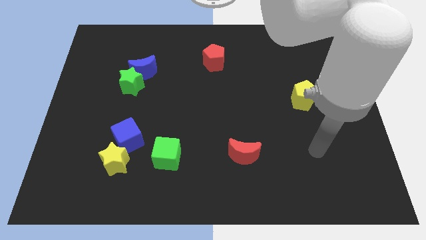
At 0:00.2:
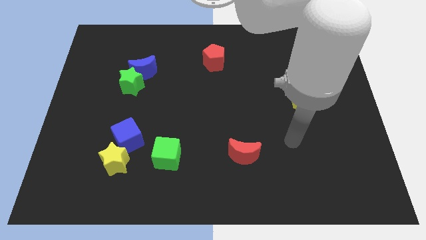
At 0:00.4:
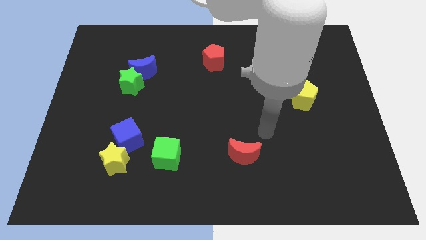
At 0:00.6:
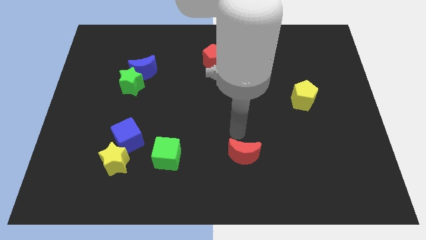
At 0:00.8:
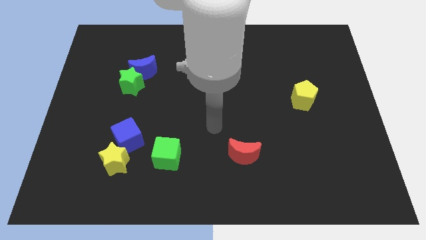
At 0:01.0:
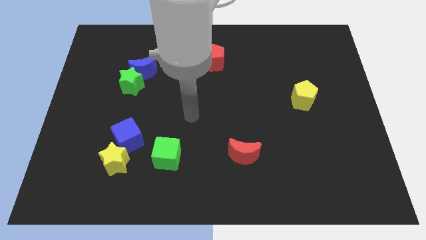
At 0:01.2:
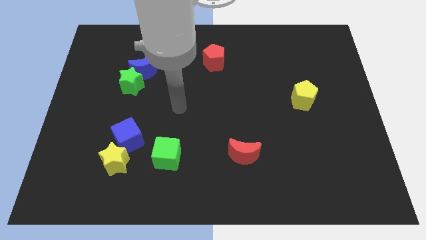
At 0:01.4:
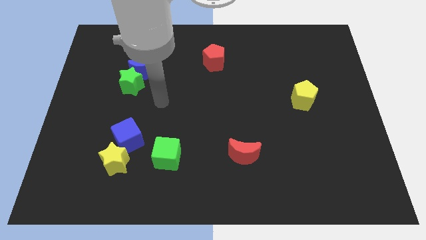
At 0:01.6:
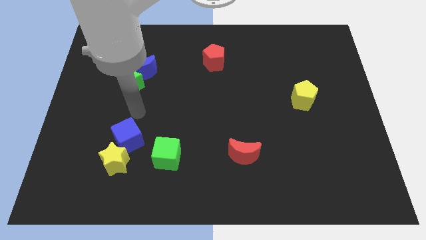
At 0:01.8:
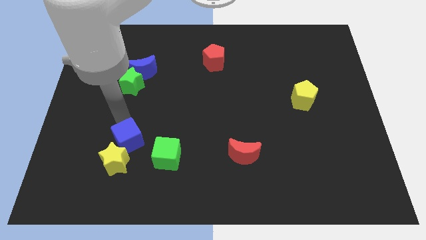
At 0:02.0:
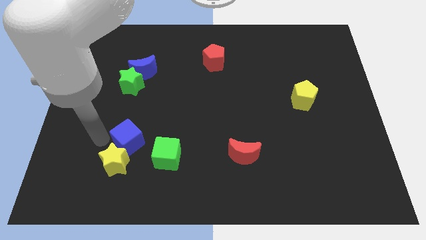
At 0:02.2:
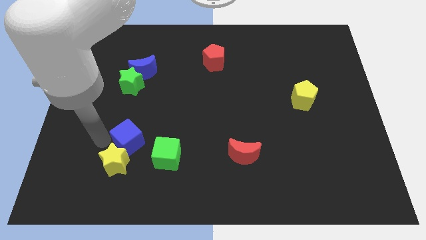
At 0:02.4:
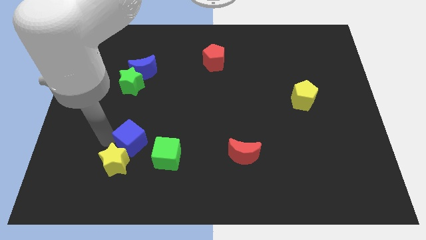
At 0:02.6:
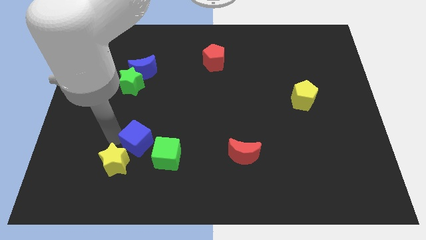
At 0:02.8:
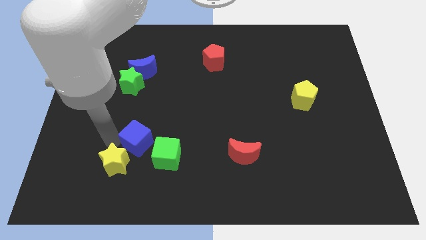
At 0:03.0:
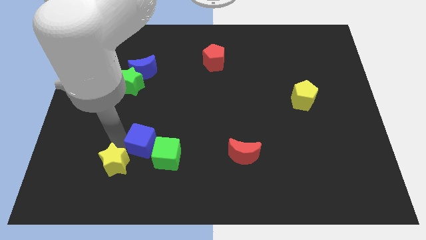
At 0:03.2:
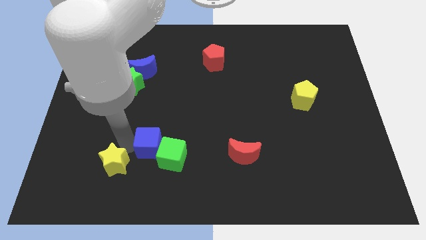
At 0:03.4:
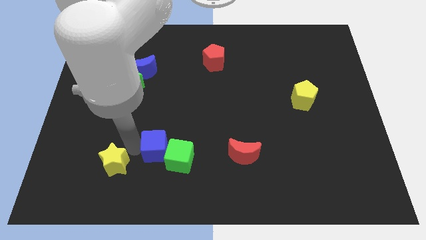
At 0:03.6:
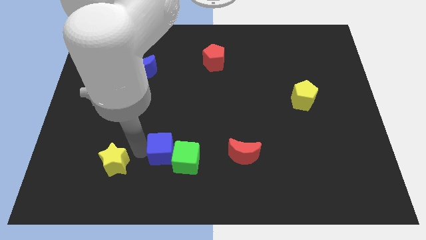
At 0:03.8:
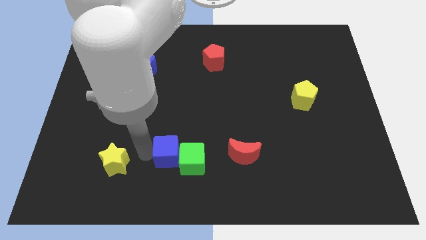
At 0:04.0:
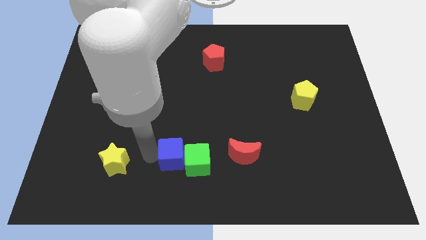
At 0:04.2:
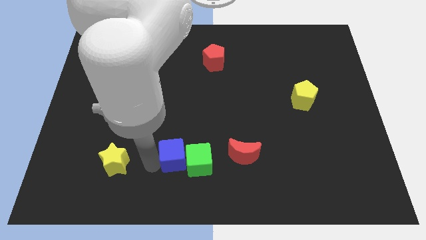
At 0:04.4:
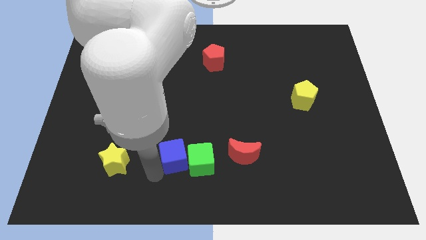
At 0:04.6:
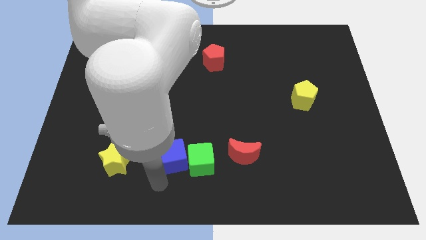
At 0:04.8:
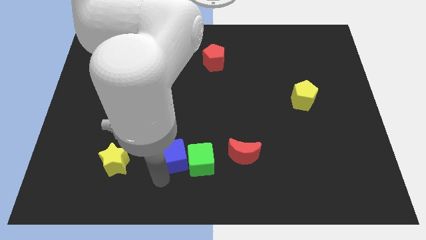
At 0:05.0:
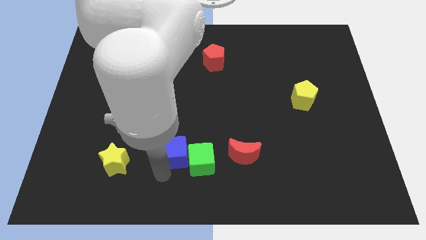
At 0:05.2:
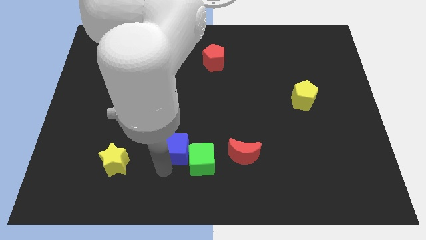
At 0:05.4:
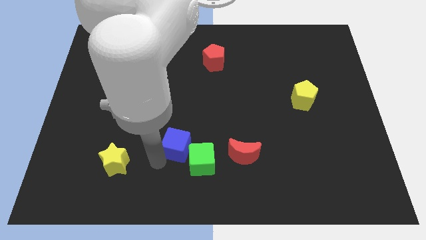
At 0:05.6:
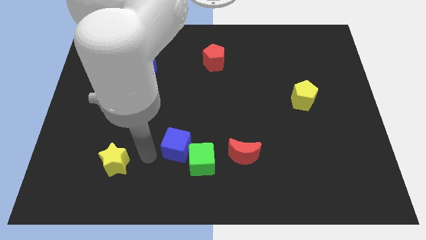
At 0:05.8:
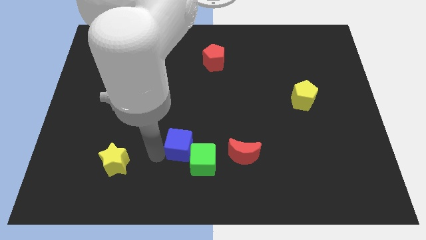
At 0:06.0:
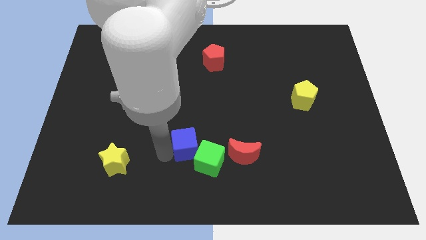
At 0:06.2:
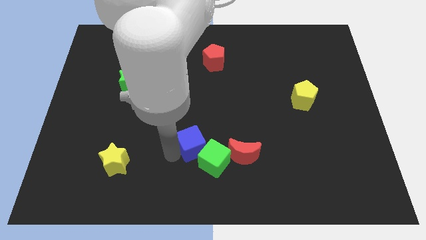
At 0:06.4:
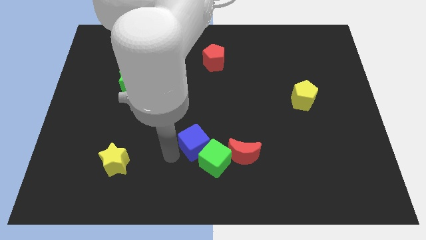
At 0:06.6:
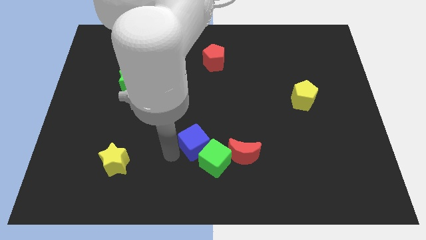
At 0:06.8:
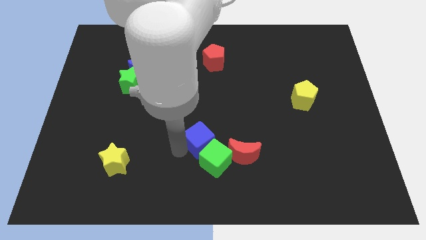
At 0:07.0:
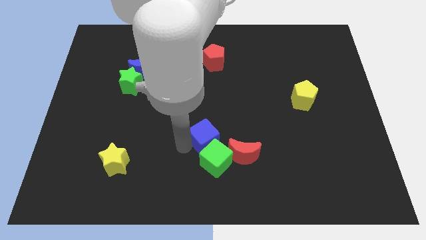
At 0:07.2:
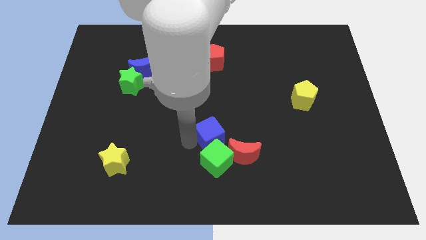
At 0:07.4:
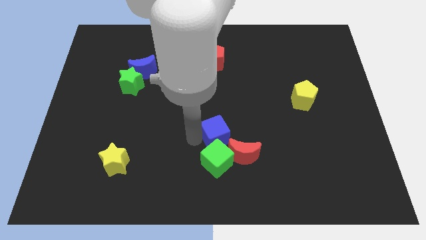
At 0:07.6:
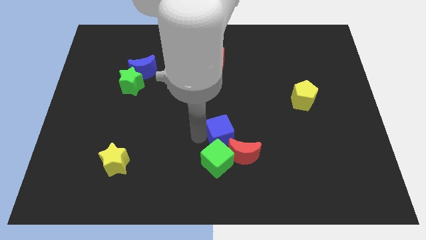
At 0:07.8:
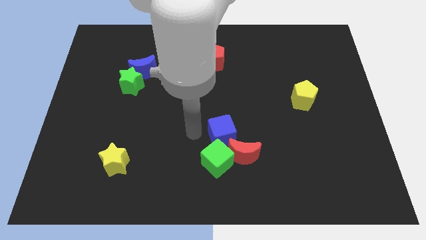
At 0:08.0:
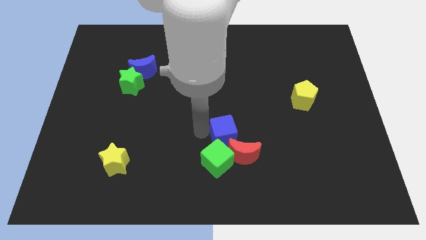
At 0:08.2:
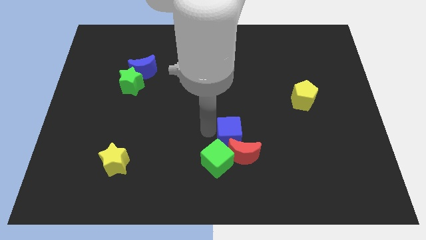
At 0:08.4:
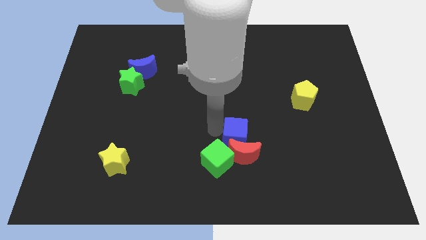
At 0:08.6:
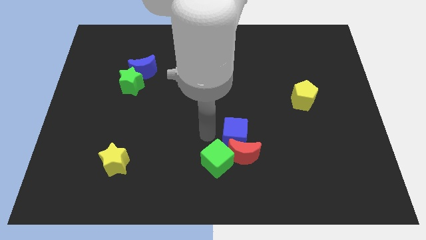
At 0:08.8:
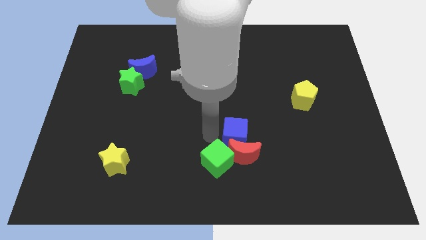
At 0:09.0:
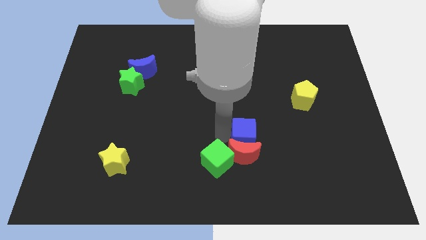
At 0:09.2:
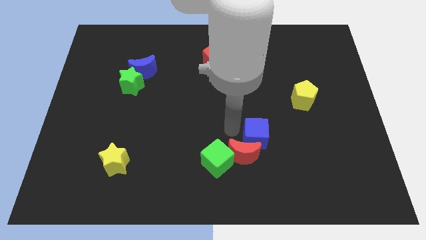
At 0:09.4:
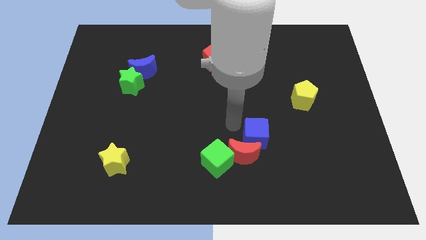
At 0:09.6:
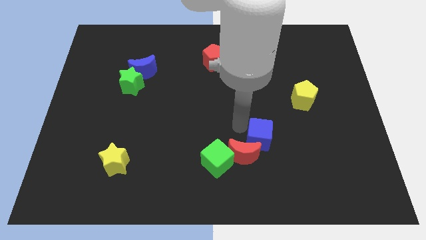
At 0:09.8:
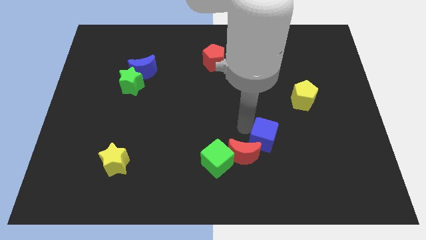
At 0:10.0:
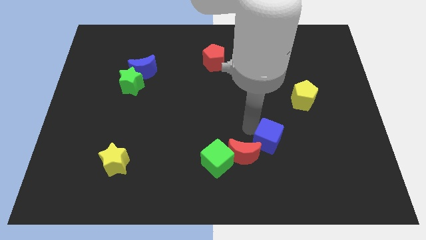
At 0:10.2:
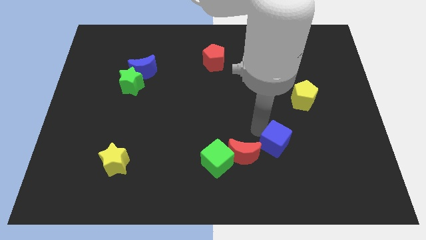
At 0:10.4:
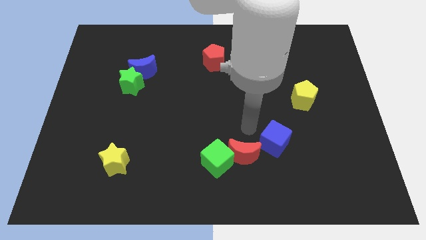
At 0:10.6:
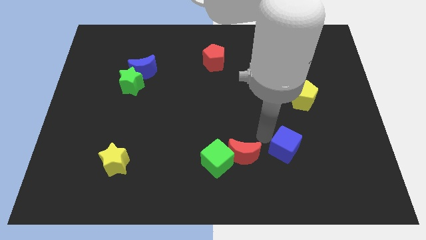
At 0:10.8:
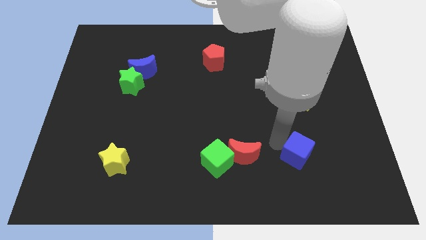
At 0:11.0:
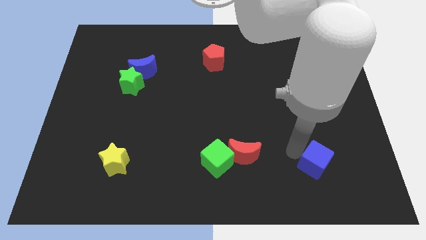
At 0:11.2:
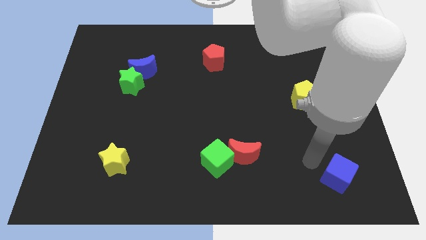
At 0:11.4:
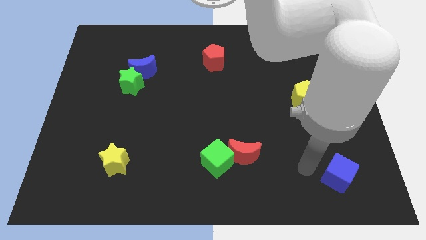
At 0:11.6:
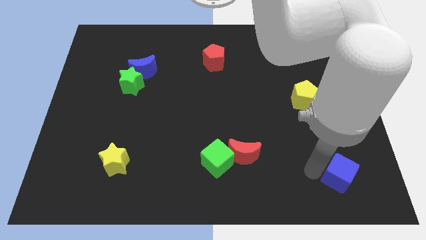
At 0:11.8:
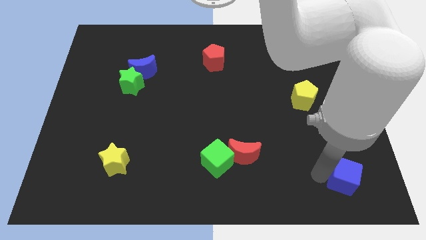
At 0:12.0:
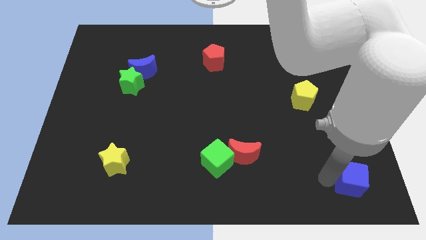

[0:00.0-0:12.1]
push the blue cube to the bottom right

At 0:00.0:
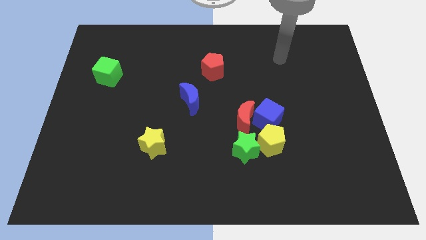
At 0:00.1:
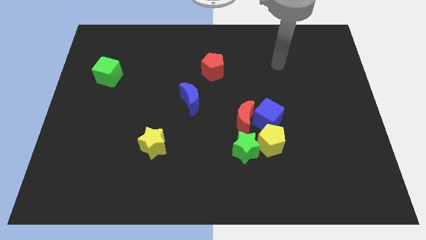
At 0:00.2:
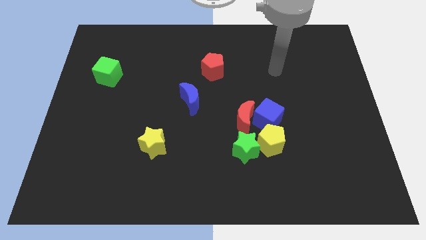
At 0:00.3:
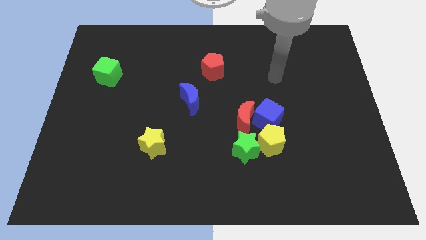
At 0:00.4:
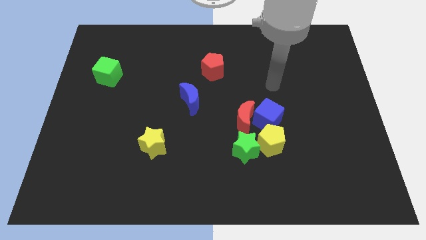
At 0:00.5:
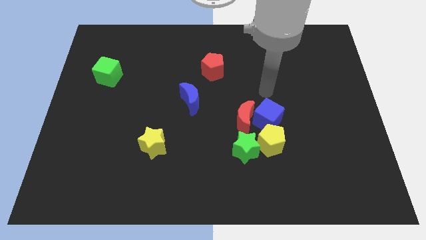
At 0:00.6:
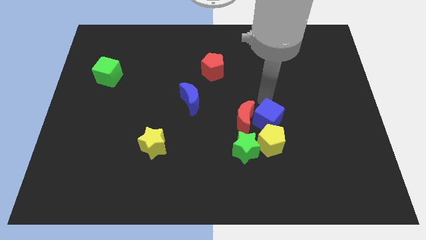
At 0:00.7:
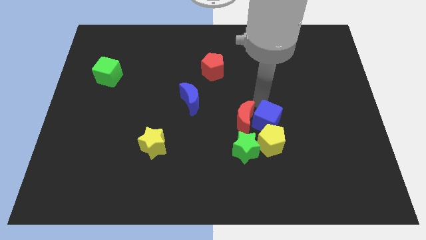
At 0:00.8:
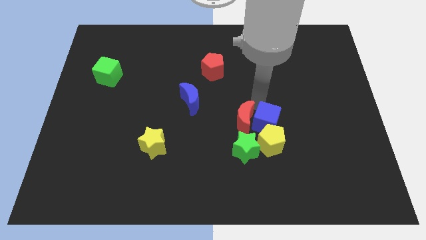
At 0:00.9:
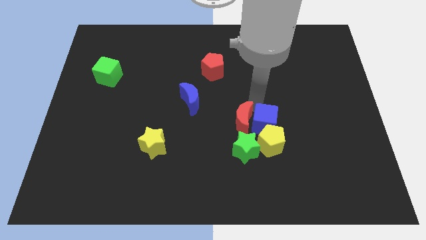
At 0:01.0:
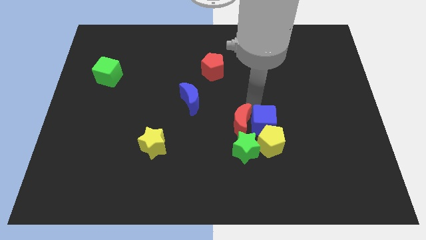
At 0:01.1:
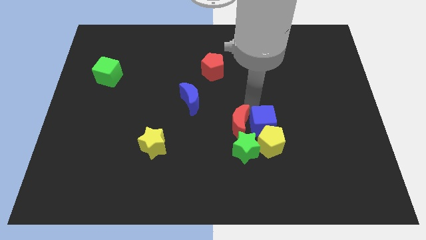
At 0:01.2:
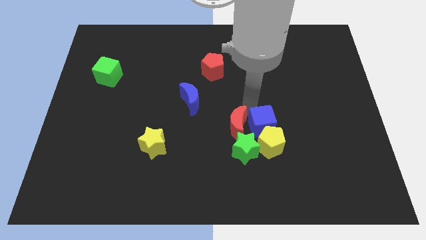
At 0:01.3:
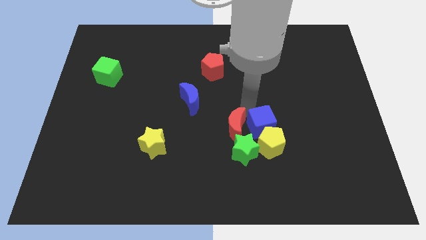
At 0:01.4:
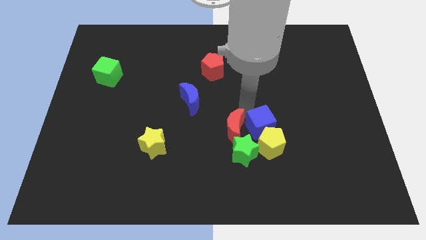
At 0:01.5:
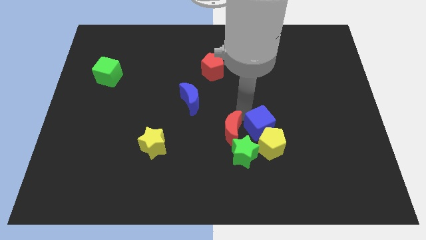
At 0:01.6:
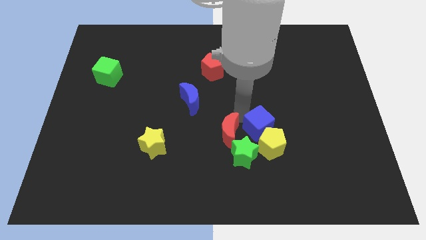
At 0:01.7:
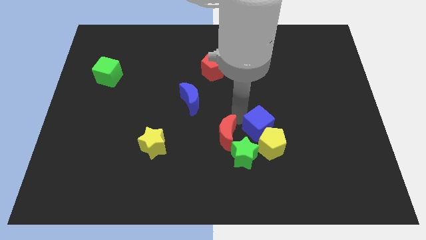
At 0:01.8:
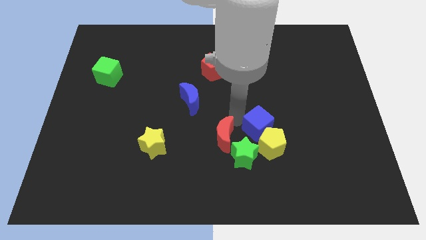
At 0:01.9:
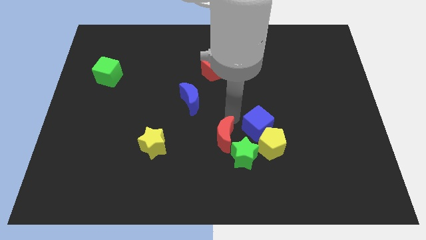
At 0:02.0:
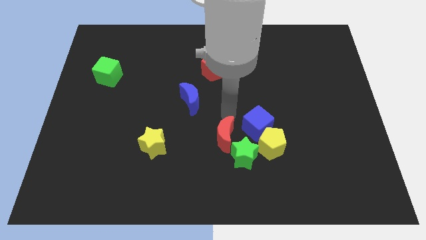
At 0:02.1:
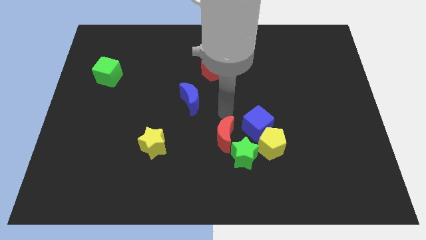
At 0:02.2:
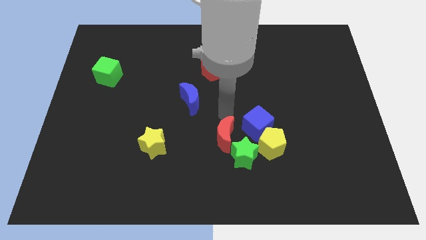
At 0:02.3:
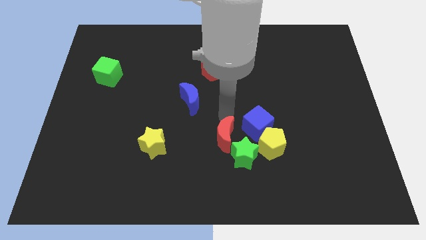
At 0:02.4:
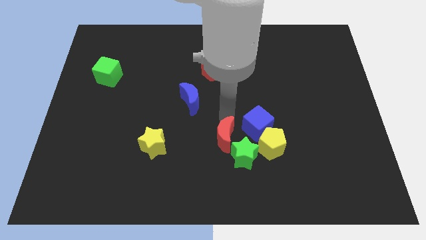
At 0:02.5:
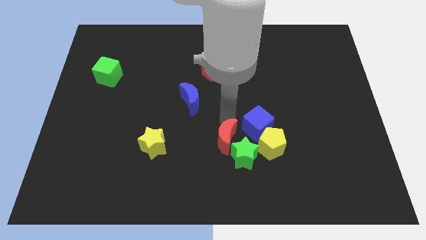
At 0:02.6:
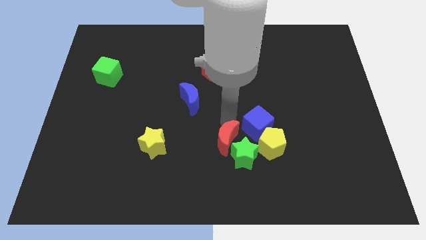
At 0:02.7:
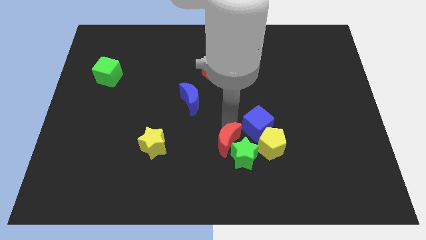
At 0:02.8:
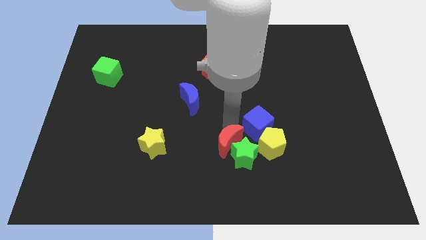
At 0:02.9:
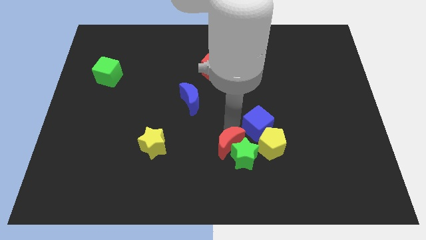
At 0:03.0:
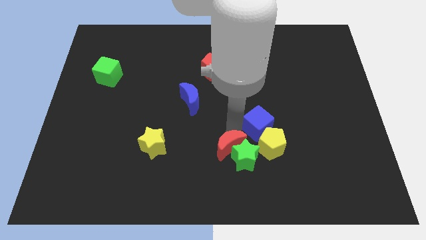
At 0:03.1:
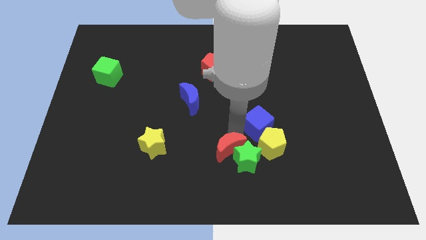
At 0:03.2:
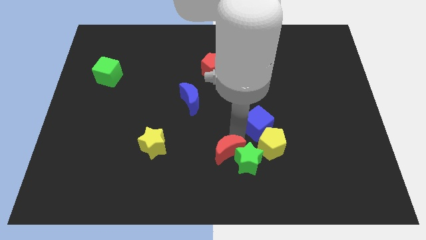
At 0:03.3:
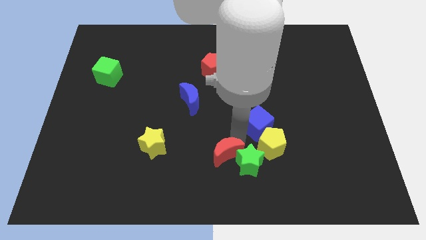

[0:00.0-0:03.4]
slide the red moon to the bottom side
